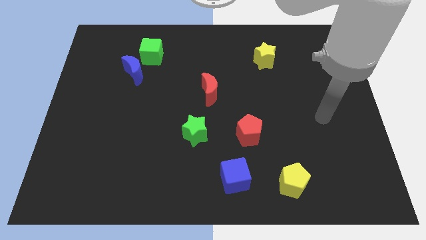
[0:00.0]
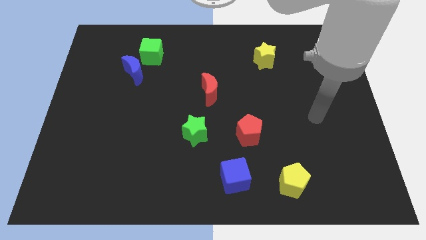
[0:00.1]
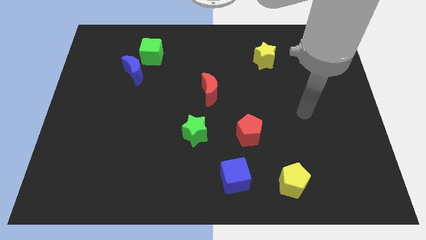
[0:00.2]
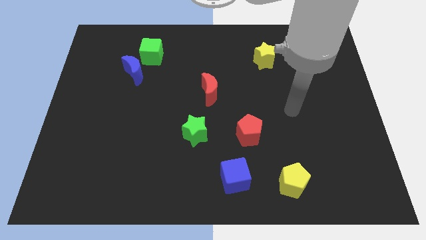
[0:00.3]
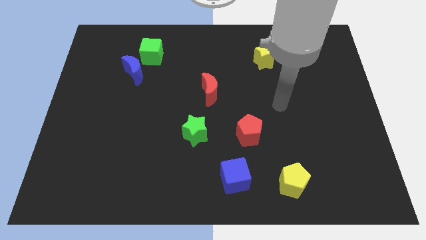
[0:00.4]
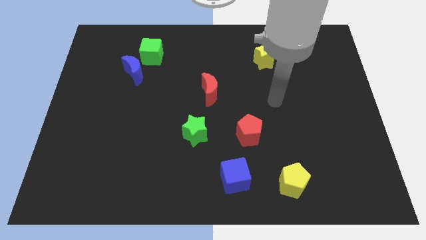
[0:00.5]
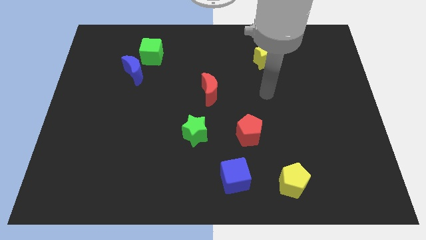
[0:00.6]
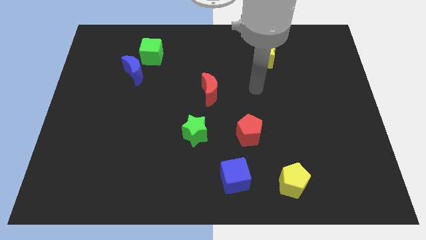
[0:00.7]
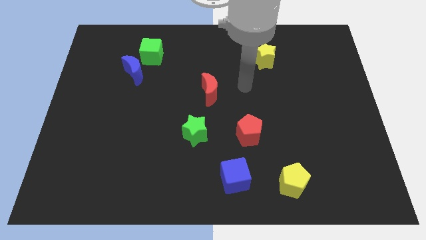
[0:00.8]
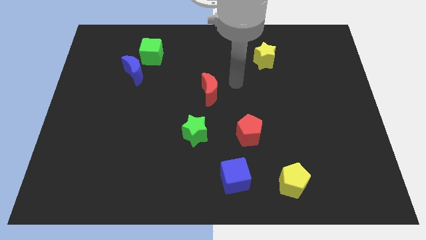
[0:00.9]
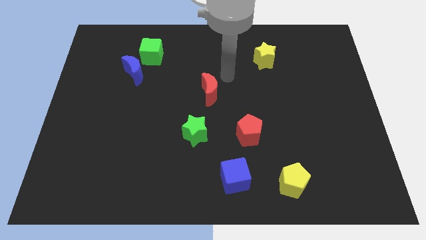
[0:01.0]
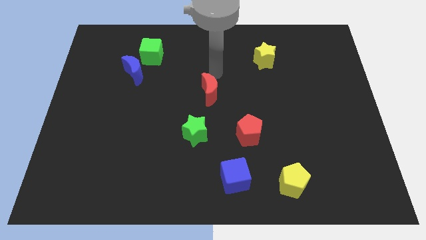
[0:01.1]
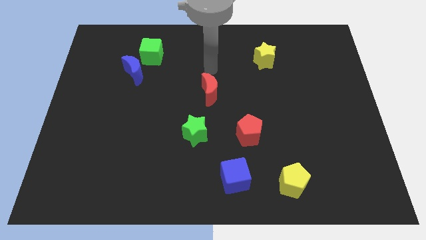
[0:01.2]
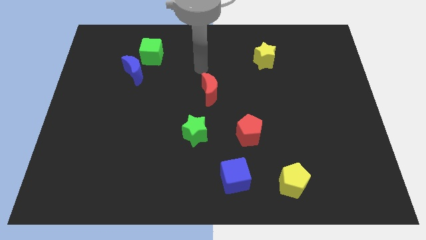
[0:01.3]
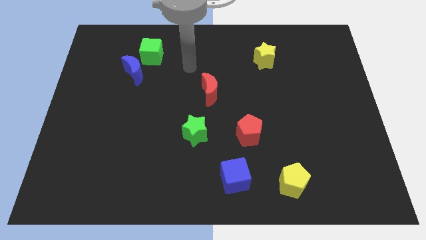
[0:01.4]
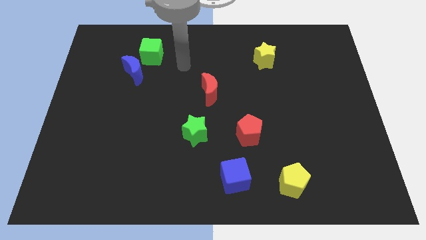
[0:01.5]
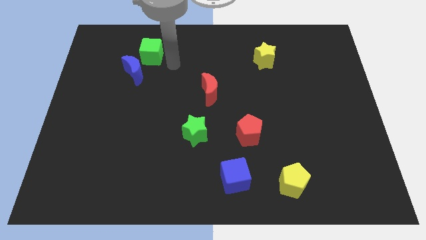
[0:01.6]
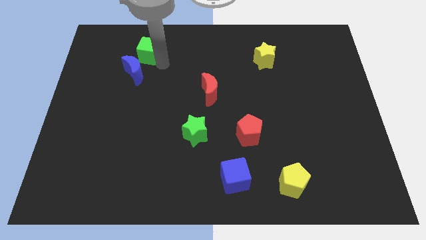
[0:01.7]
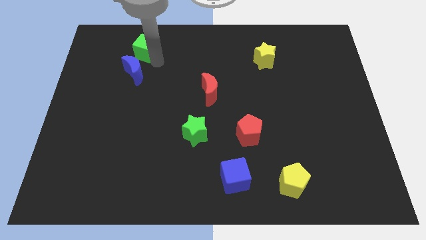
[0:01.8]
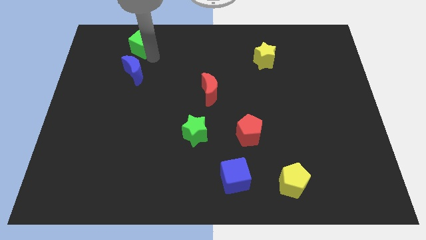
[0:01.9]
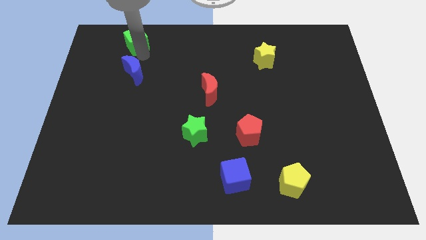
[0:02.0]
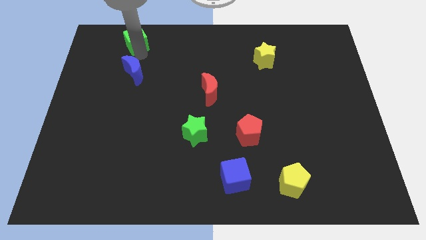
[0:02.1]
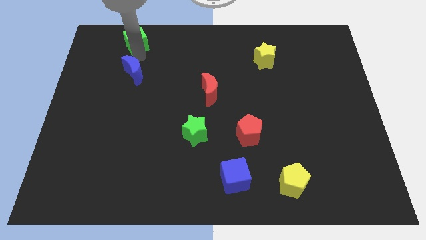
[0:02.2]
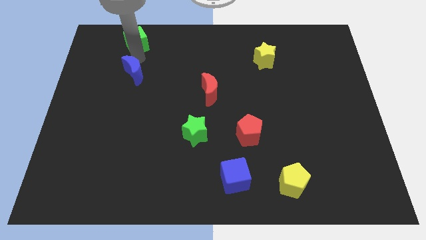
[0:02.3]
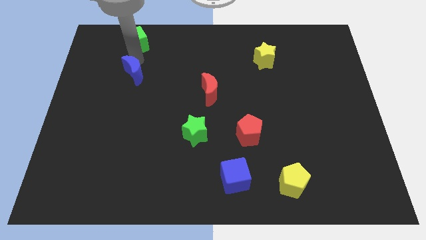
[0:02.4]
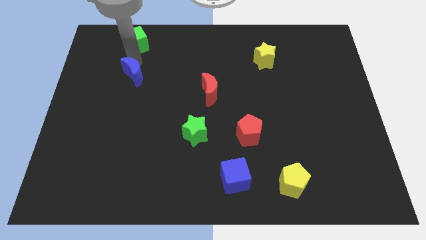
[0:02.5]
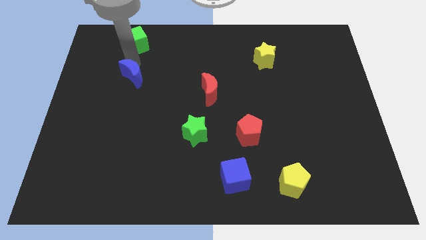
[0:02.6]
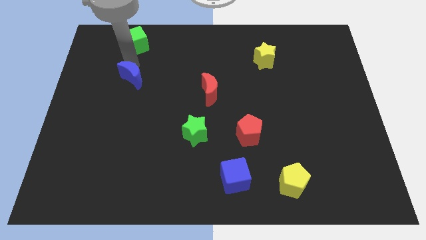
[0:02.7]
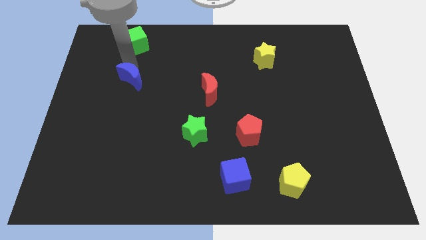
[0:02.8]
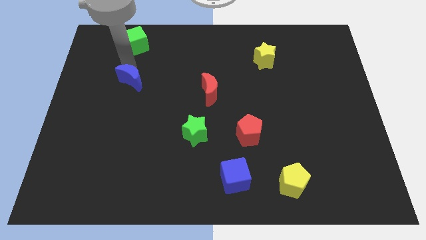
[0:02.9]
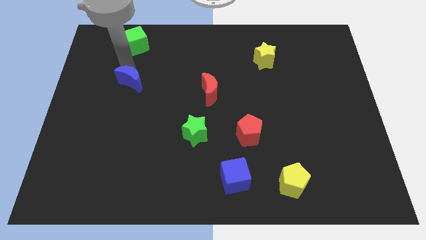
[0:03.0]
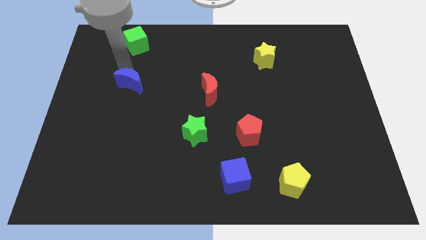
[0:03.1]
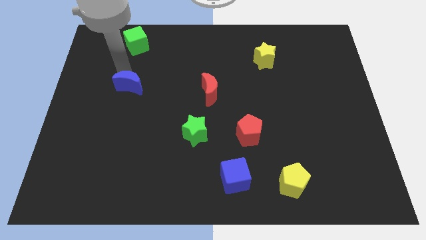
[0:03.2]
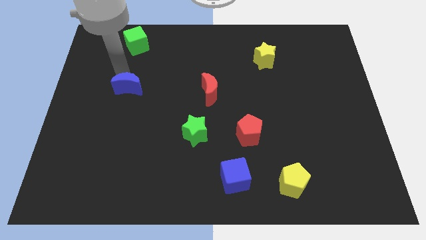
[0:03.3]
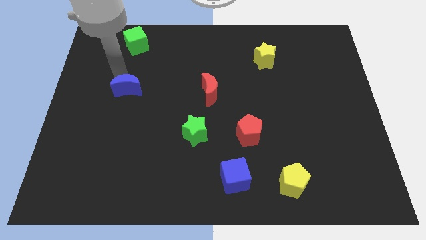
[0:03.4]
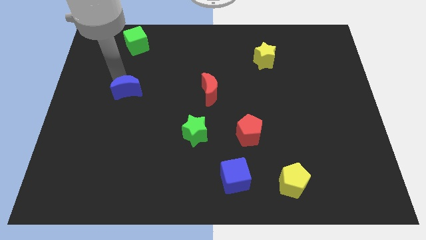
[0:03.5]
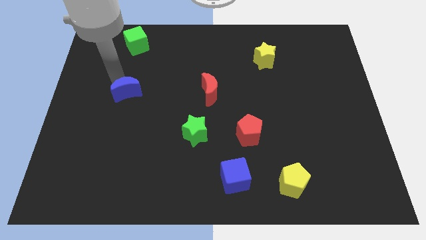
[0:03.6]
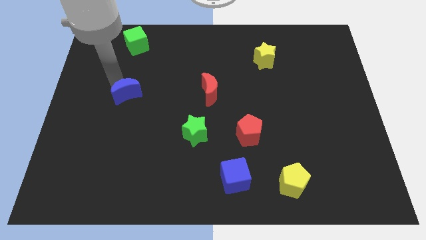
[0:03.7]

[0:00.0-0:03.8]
push the blue moon downwards a bit

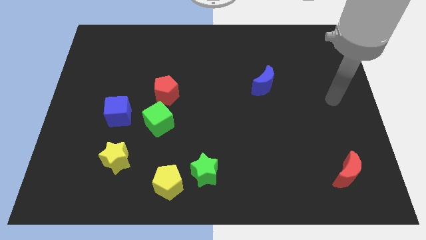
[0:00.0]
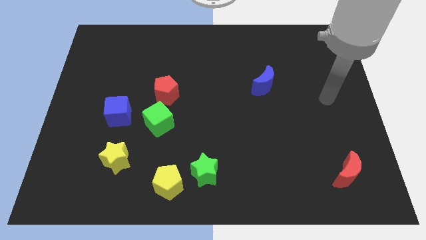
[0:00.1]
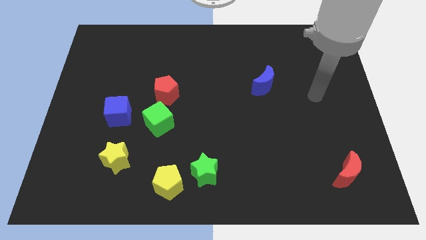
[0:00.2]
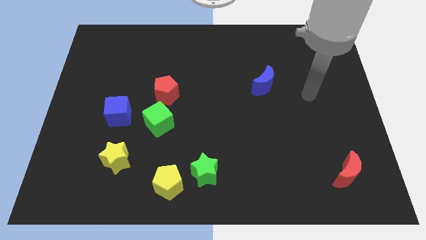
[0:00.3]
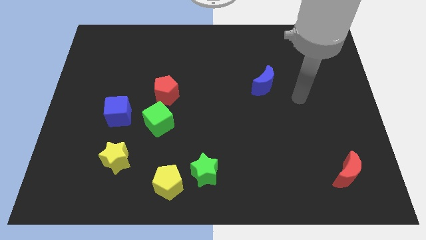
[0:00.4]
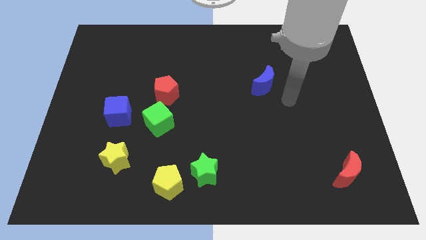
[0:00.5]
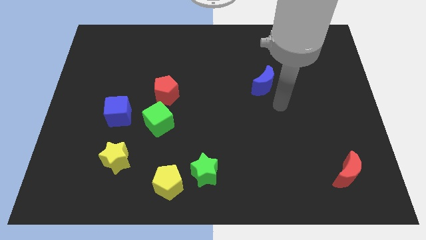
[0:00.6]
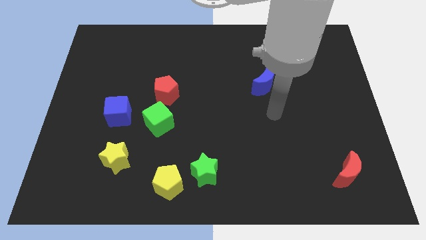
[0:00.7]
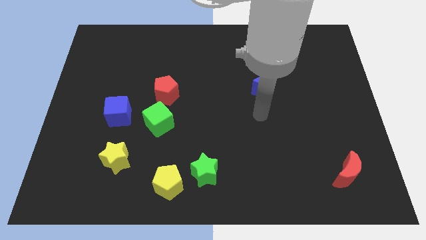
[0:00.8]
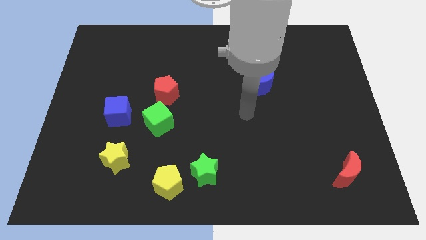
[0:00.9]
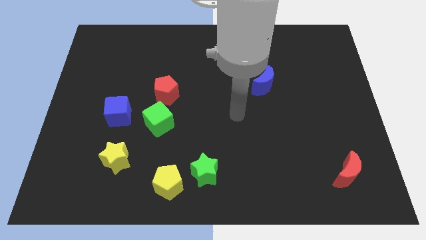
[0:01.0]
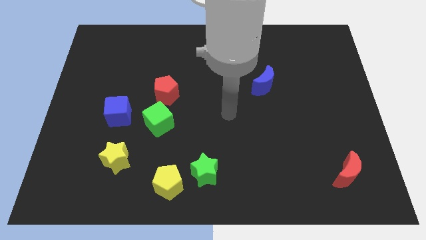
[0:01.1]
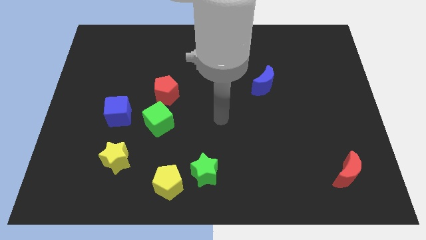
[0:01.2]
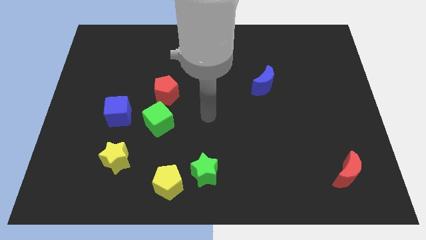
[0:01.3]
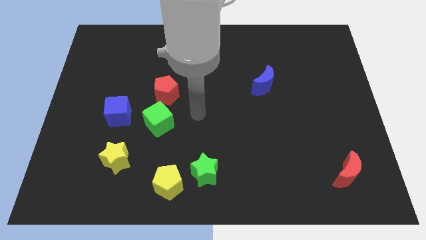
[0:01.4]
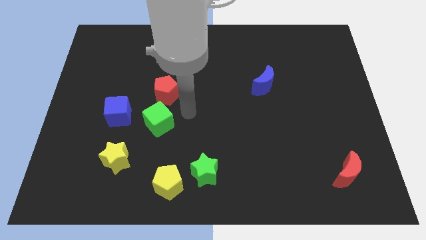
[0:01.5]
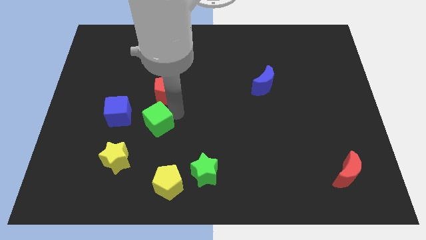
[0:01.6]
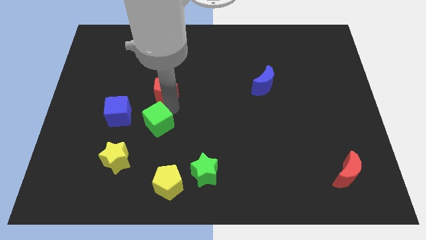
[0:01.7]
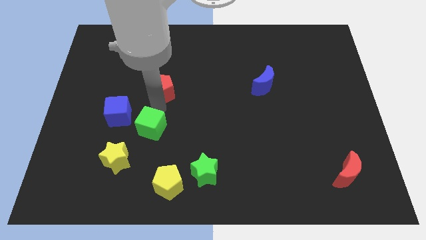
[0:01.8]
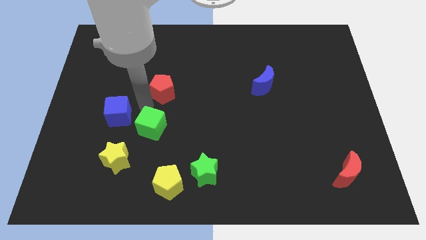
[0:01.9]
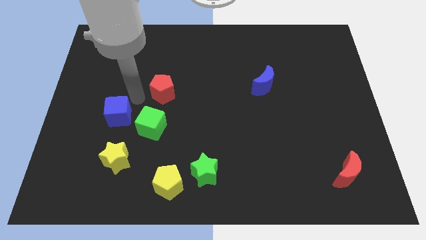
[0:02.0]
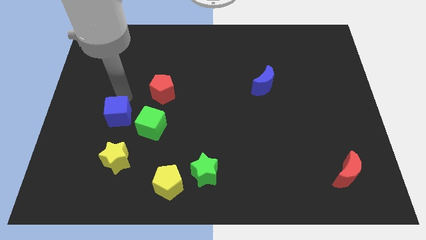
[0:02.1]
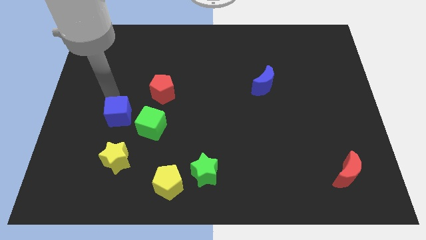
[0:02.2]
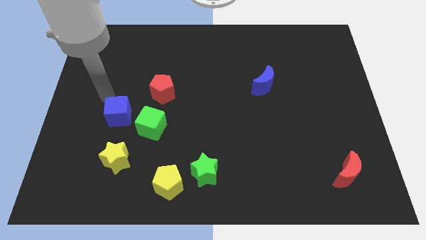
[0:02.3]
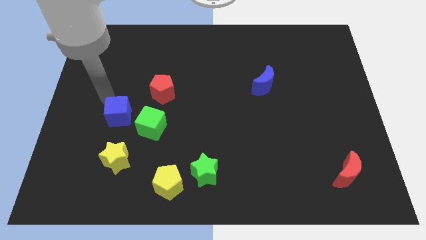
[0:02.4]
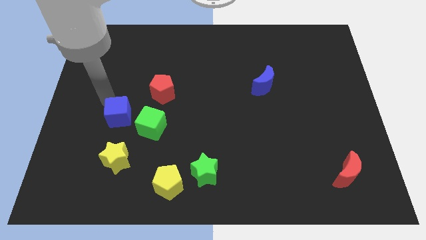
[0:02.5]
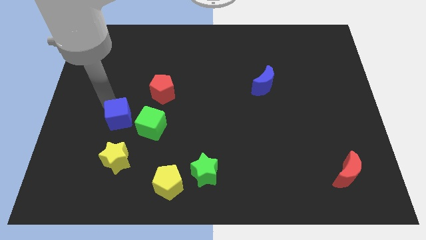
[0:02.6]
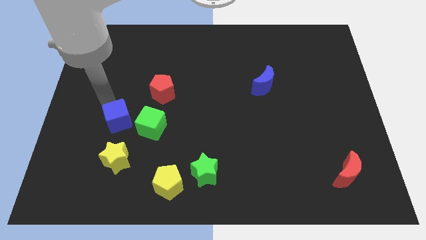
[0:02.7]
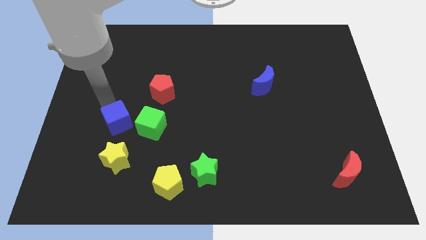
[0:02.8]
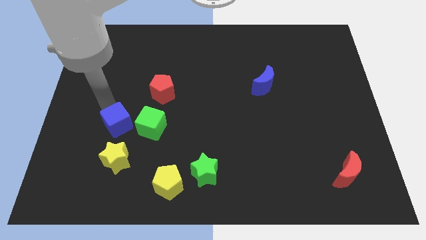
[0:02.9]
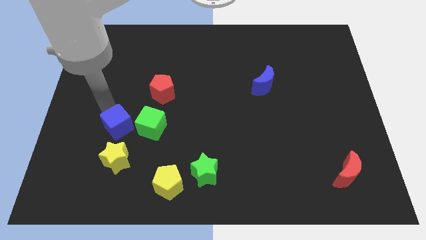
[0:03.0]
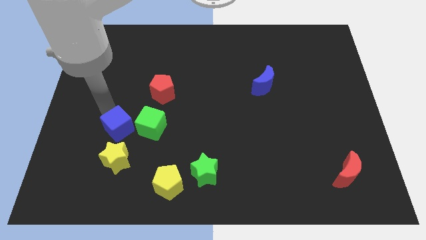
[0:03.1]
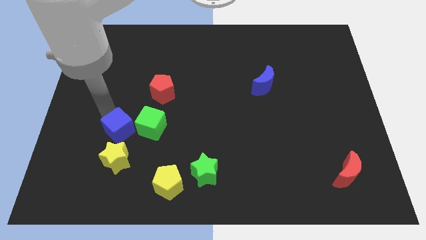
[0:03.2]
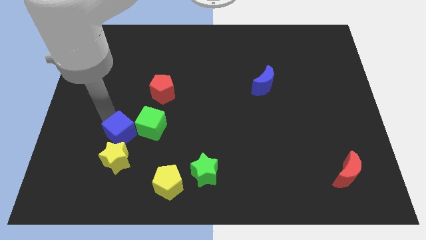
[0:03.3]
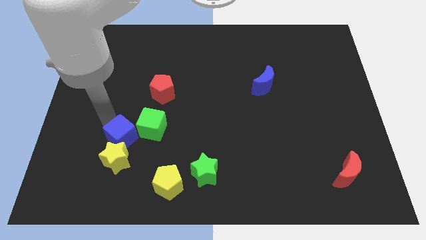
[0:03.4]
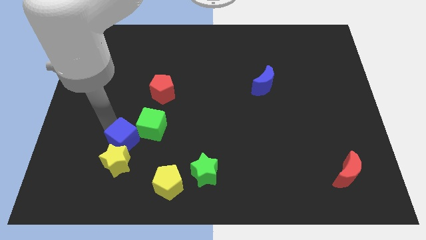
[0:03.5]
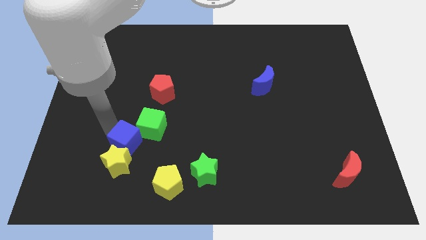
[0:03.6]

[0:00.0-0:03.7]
move the blue cube down and to the right slightly

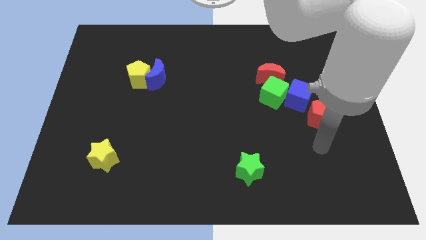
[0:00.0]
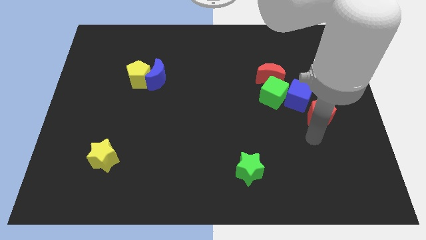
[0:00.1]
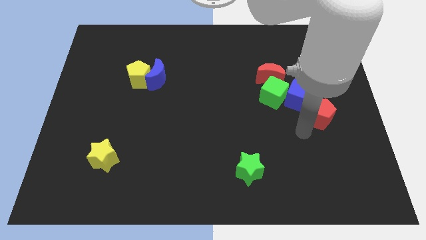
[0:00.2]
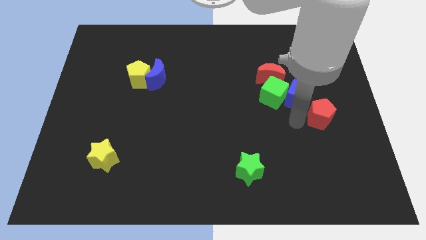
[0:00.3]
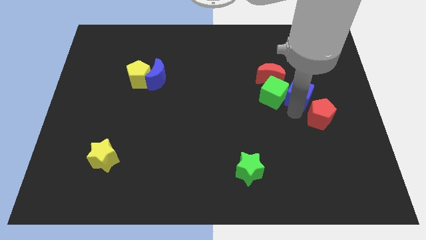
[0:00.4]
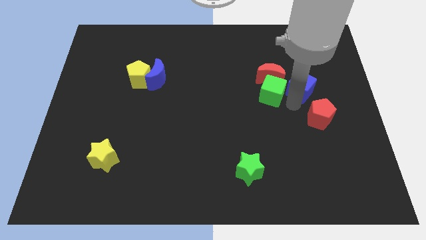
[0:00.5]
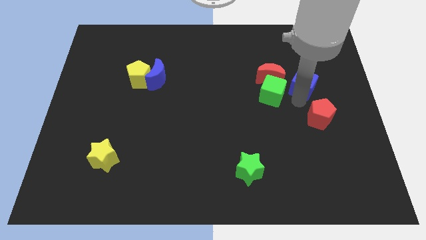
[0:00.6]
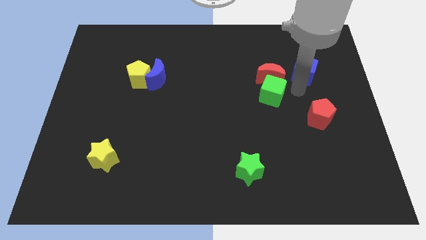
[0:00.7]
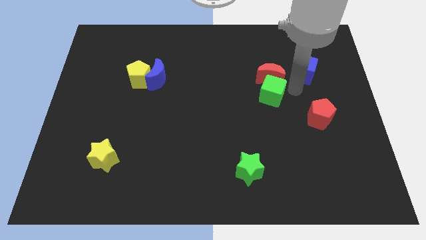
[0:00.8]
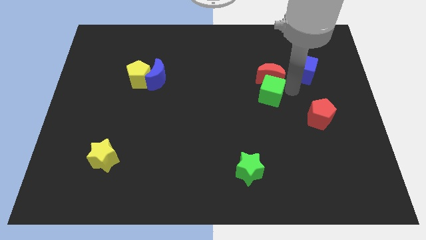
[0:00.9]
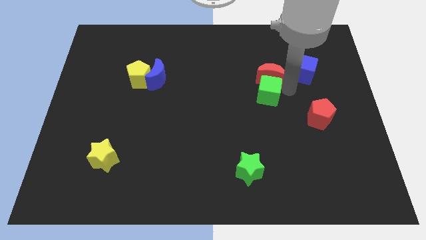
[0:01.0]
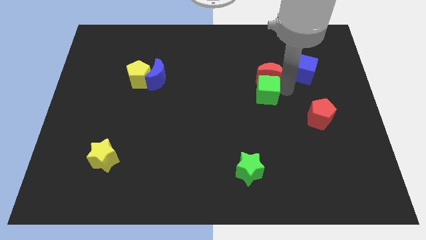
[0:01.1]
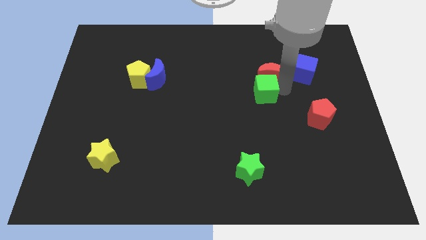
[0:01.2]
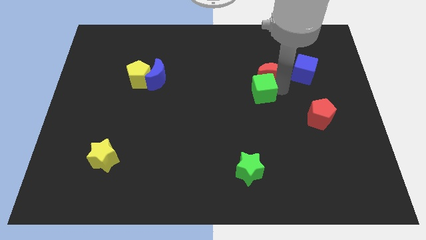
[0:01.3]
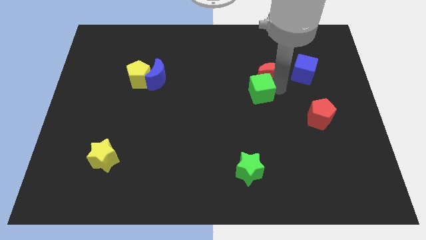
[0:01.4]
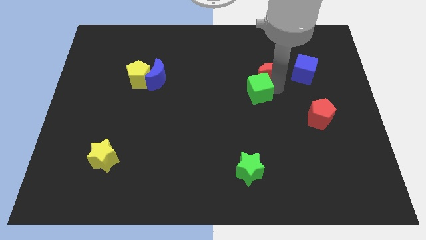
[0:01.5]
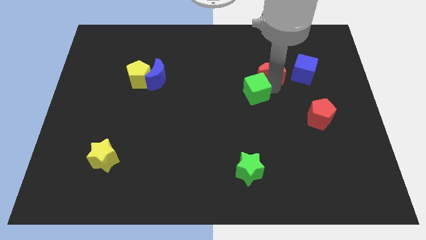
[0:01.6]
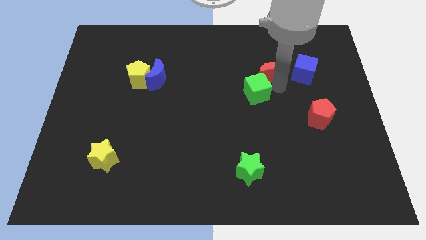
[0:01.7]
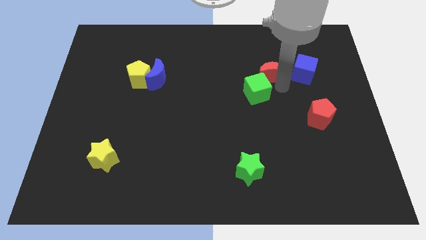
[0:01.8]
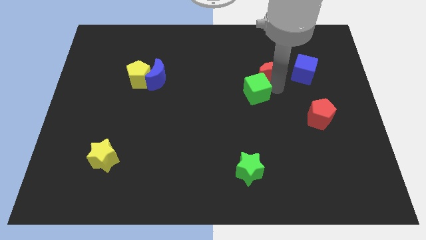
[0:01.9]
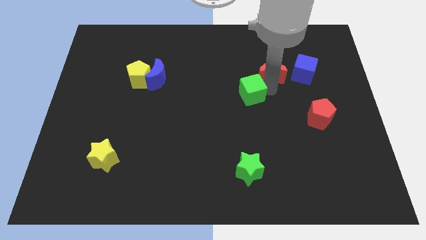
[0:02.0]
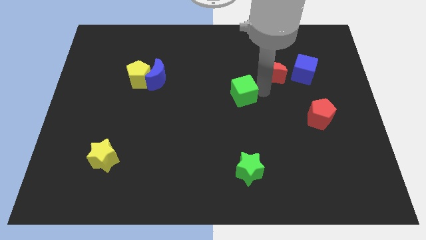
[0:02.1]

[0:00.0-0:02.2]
slightly push the green cube to the left
